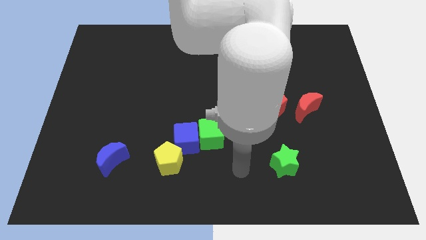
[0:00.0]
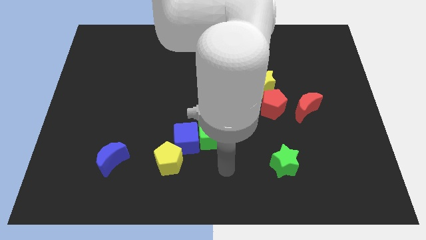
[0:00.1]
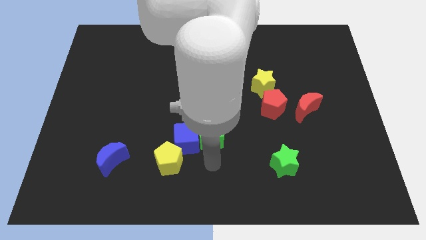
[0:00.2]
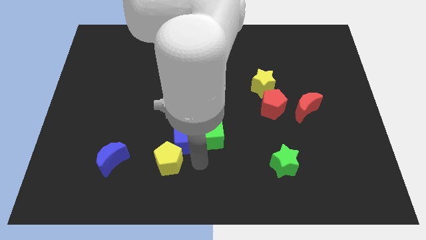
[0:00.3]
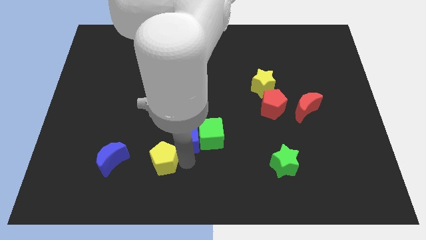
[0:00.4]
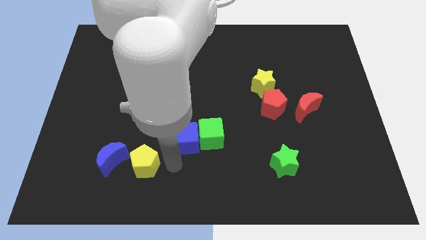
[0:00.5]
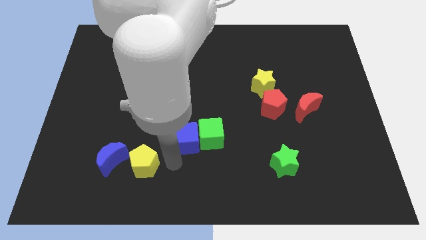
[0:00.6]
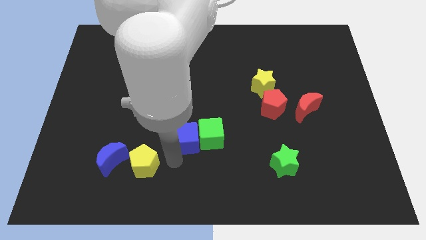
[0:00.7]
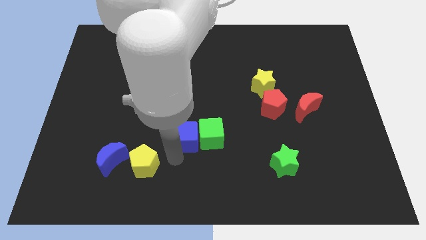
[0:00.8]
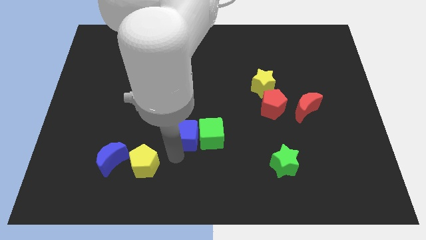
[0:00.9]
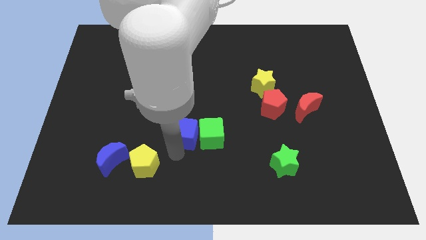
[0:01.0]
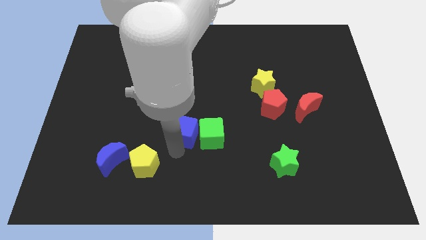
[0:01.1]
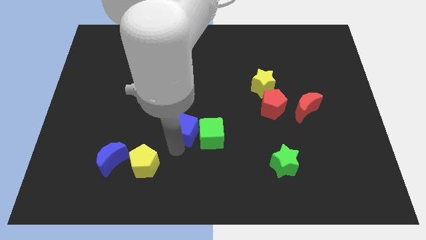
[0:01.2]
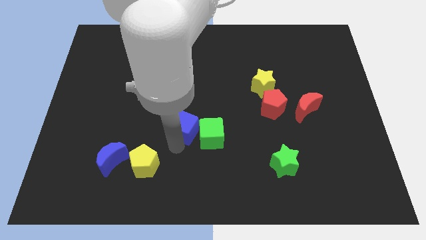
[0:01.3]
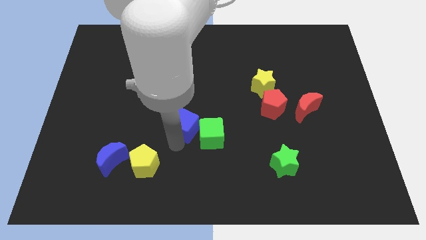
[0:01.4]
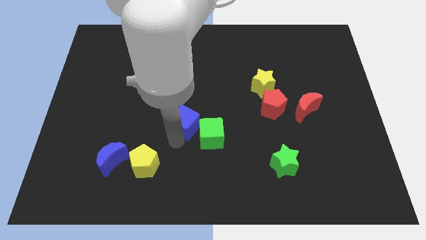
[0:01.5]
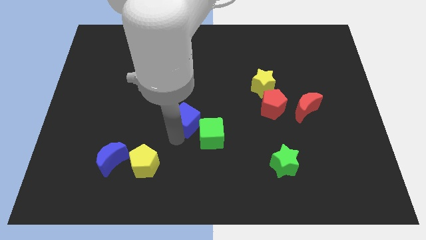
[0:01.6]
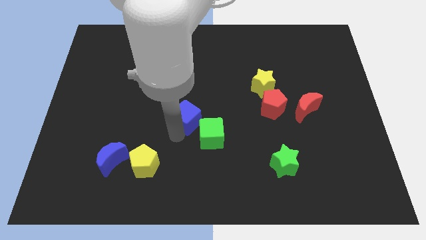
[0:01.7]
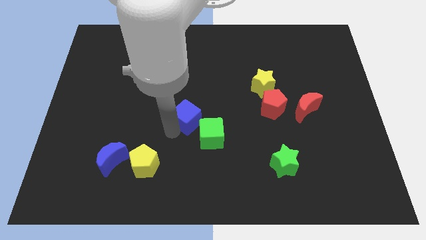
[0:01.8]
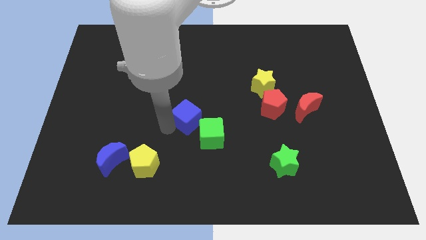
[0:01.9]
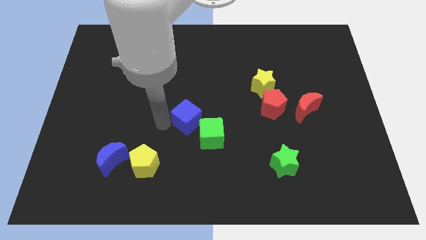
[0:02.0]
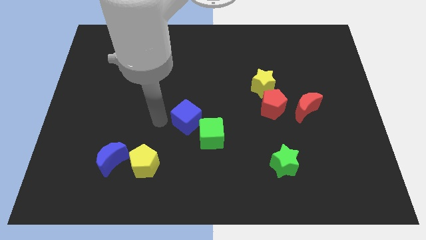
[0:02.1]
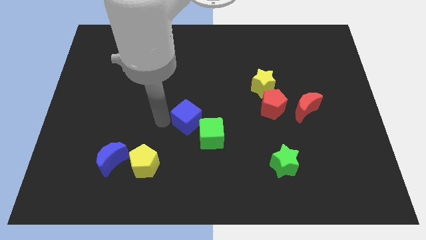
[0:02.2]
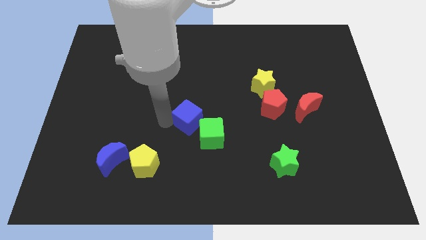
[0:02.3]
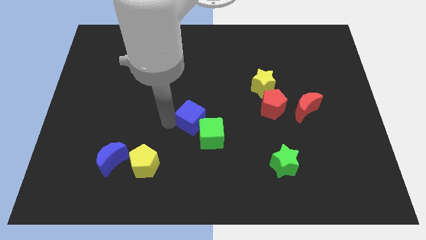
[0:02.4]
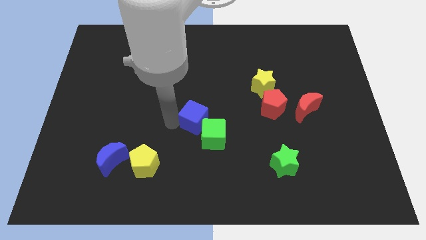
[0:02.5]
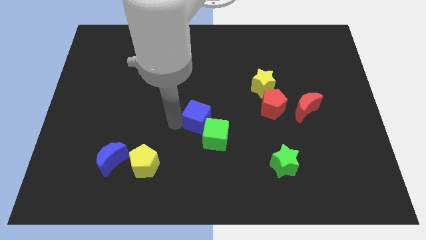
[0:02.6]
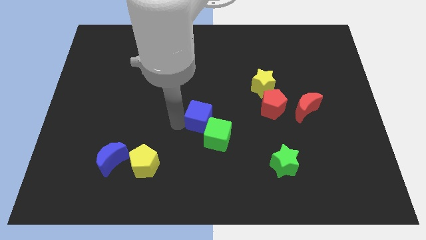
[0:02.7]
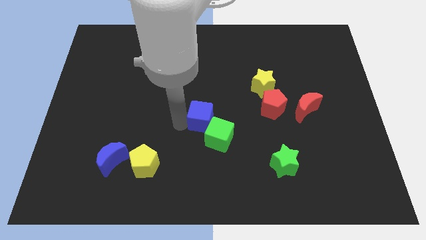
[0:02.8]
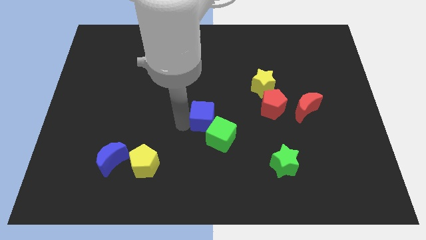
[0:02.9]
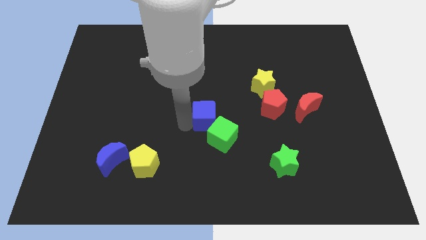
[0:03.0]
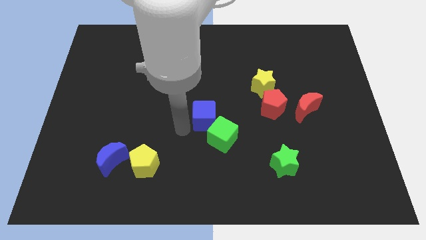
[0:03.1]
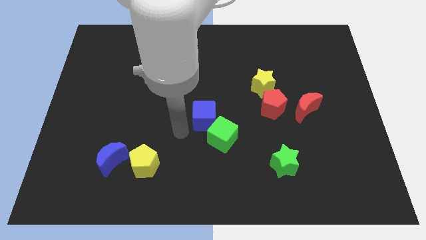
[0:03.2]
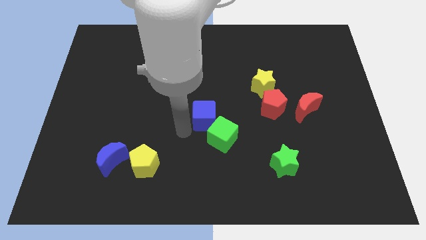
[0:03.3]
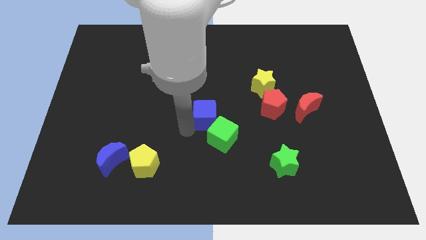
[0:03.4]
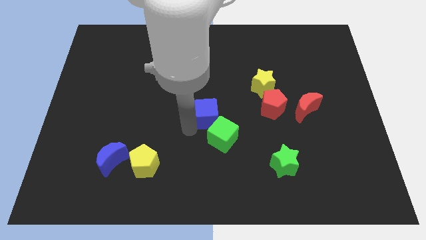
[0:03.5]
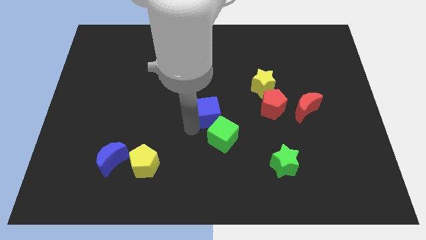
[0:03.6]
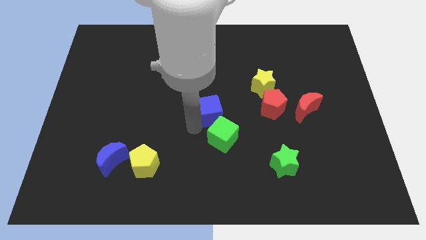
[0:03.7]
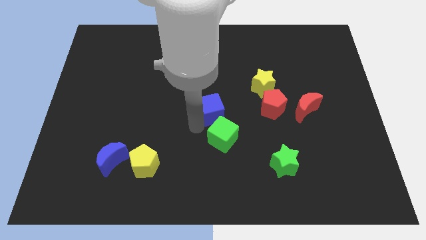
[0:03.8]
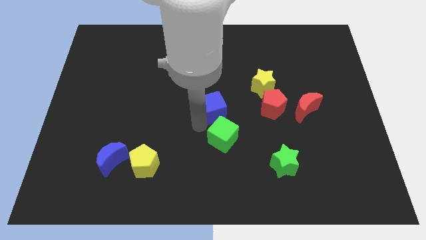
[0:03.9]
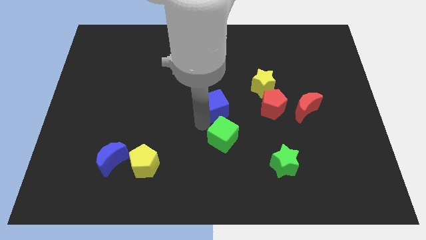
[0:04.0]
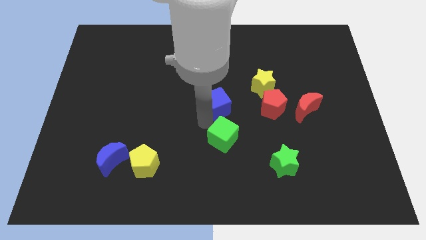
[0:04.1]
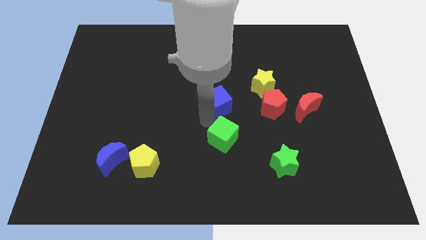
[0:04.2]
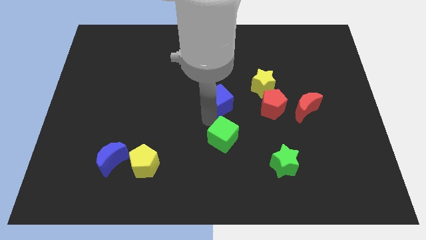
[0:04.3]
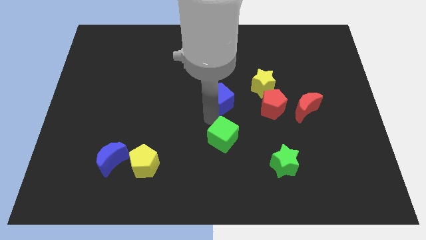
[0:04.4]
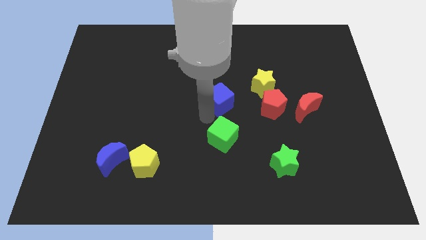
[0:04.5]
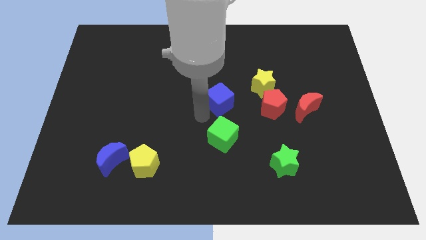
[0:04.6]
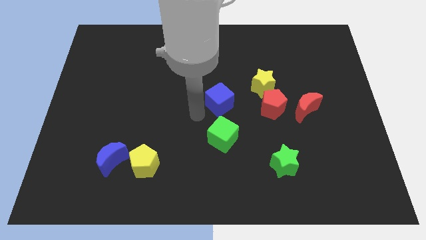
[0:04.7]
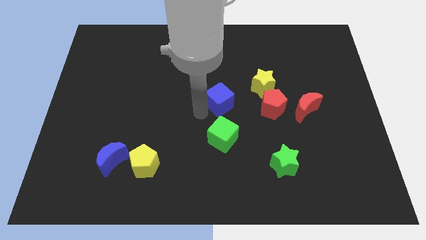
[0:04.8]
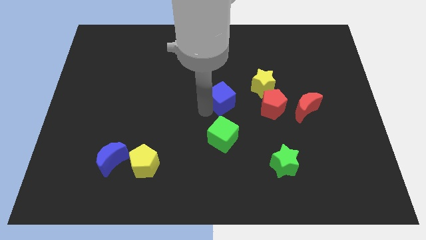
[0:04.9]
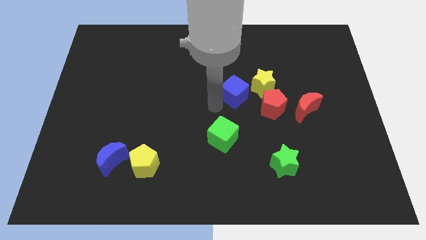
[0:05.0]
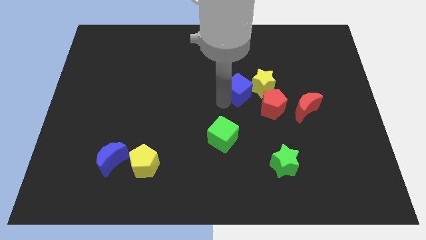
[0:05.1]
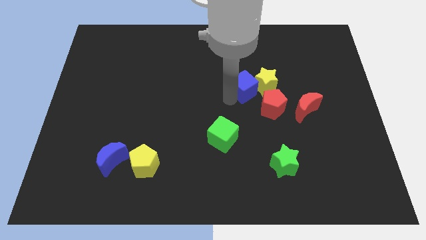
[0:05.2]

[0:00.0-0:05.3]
push the blue cube upwards and to the right

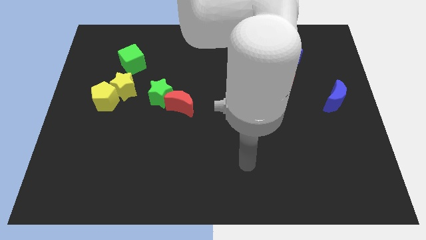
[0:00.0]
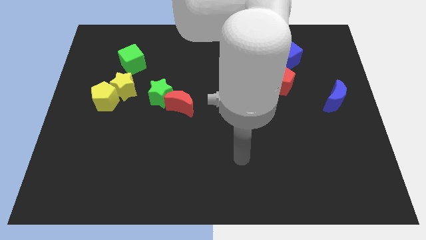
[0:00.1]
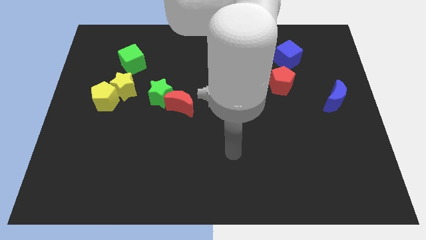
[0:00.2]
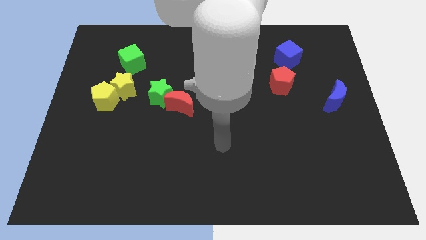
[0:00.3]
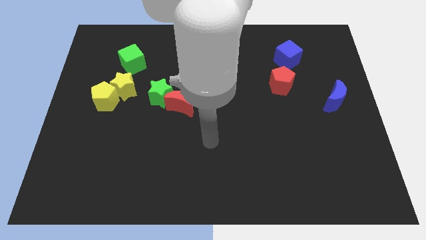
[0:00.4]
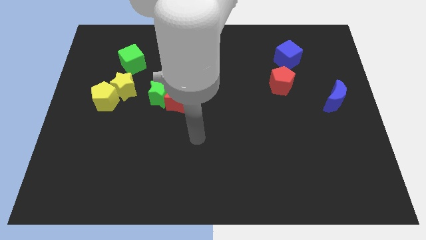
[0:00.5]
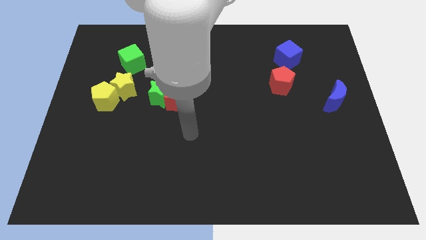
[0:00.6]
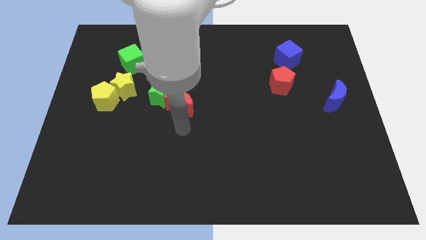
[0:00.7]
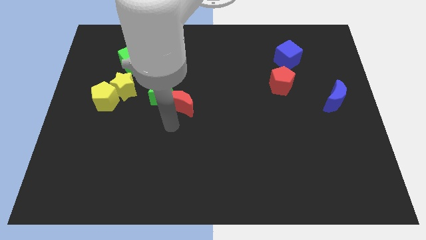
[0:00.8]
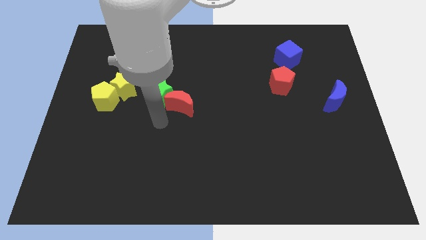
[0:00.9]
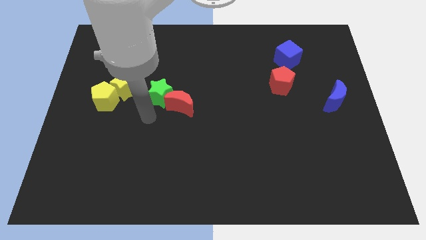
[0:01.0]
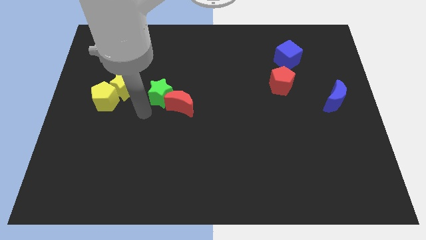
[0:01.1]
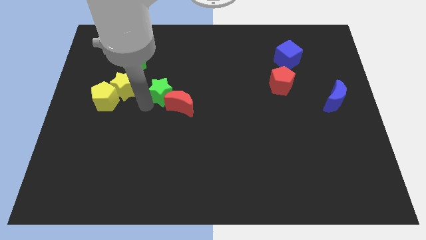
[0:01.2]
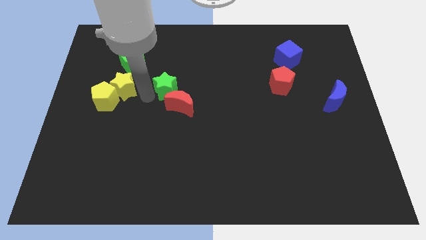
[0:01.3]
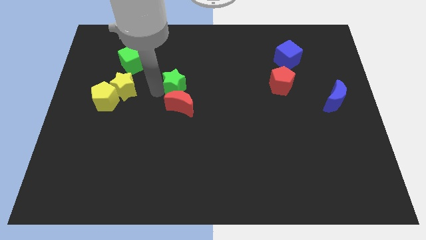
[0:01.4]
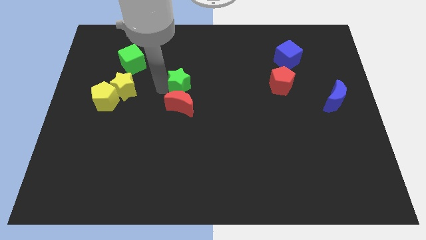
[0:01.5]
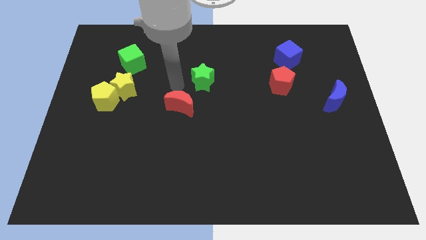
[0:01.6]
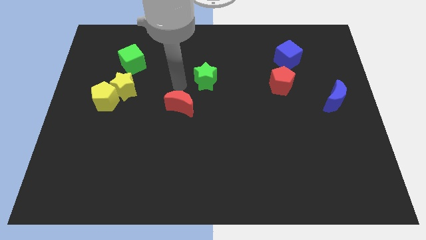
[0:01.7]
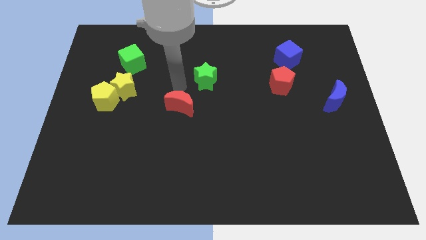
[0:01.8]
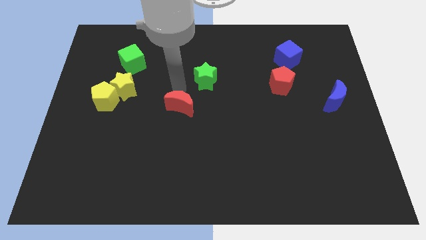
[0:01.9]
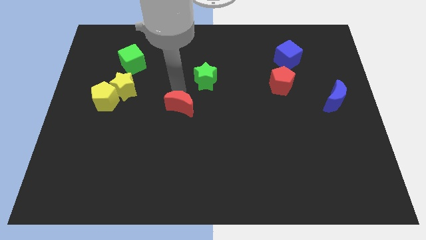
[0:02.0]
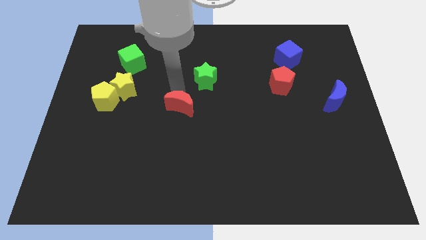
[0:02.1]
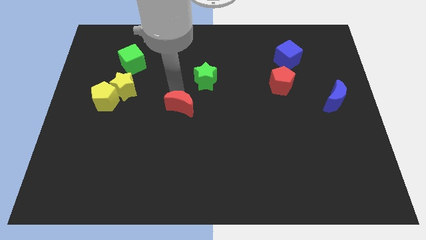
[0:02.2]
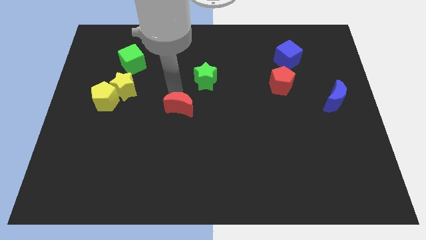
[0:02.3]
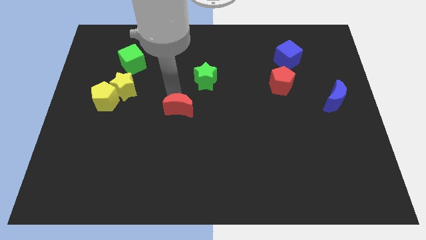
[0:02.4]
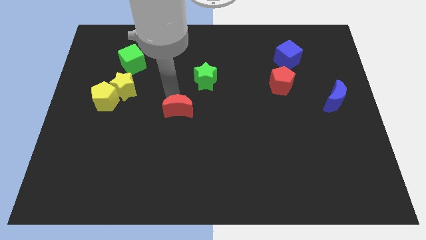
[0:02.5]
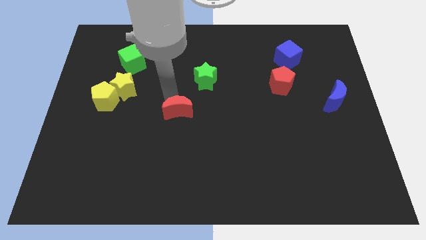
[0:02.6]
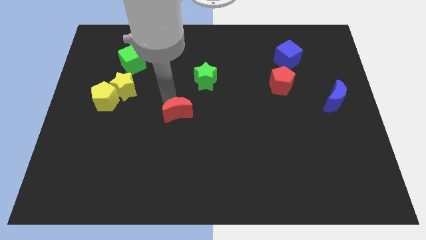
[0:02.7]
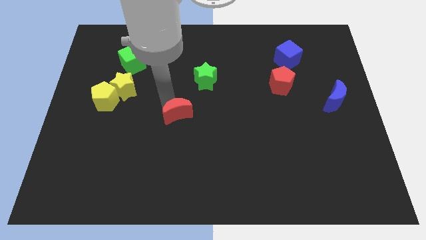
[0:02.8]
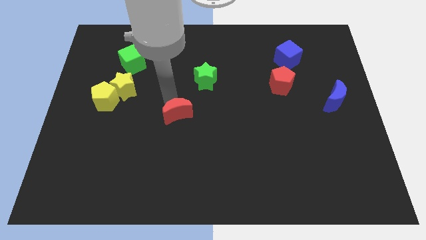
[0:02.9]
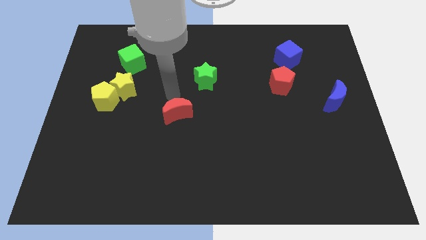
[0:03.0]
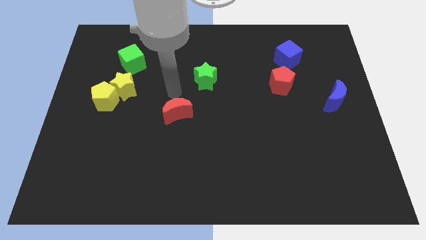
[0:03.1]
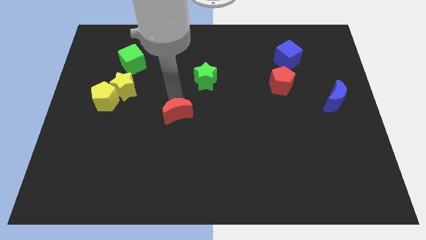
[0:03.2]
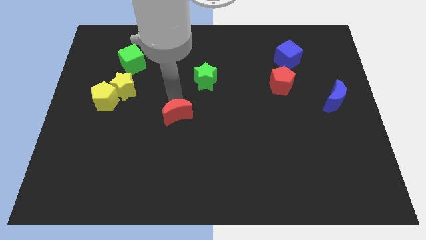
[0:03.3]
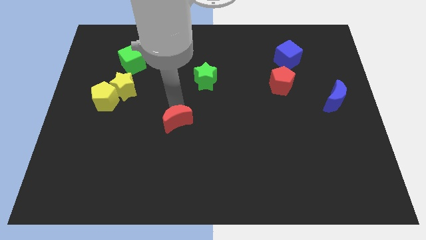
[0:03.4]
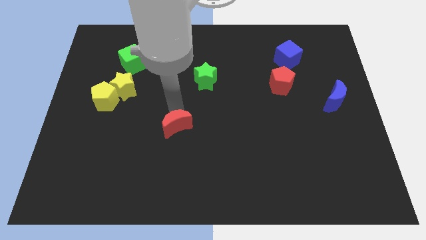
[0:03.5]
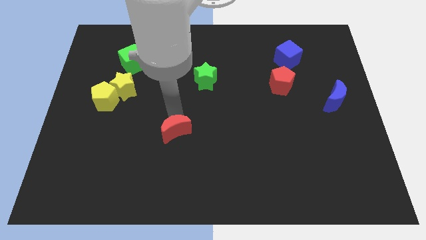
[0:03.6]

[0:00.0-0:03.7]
push the red moon a bit down
